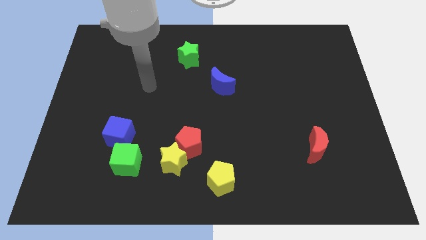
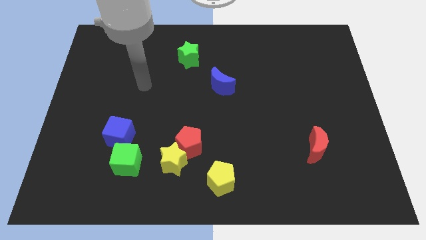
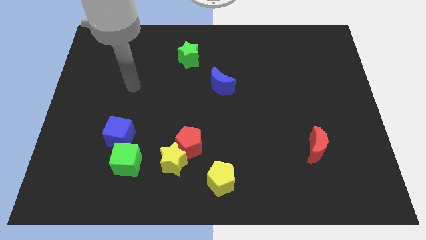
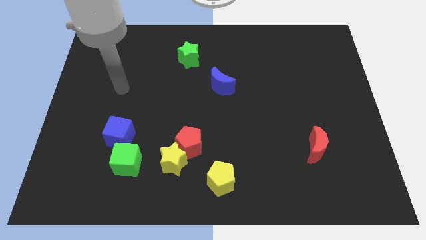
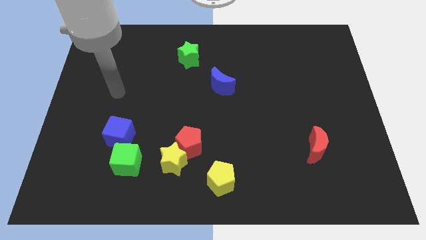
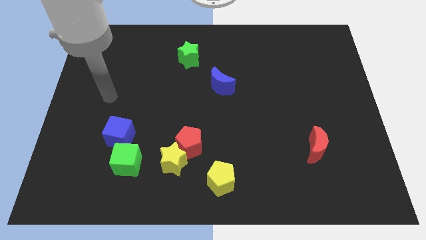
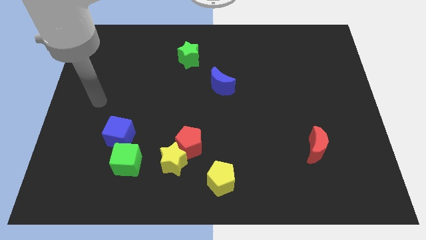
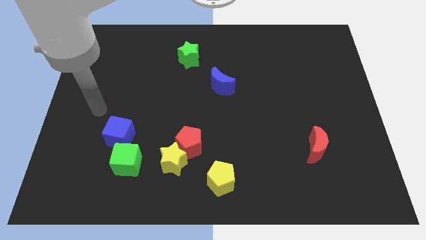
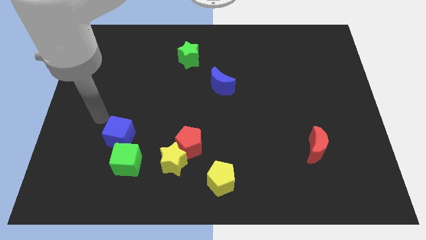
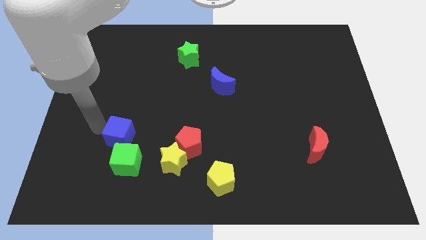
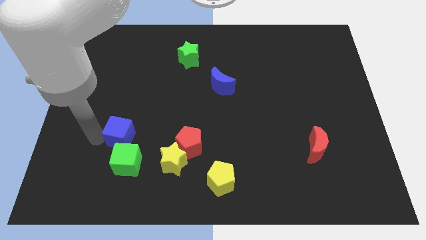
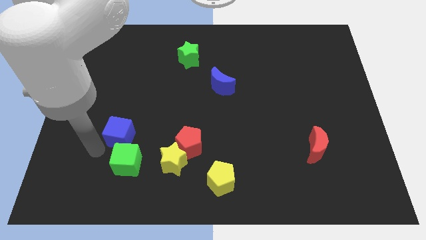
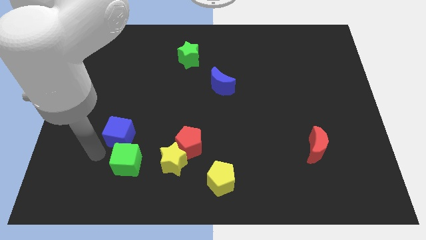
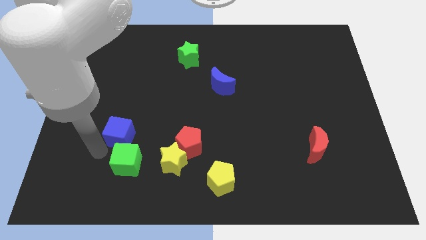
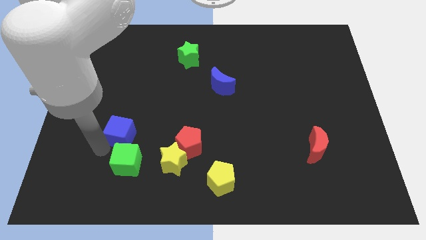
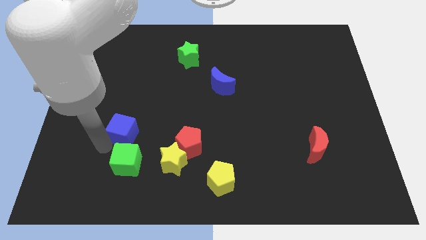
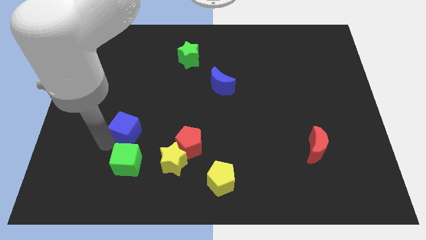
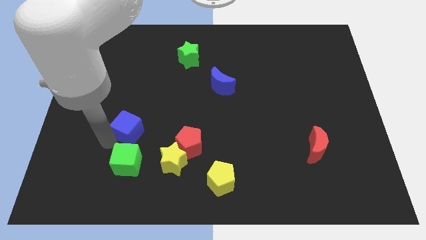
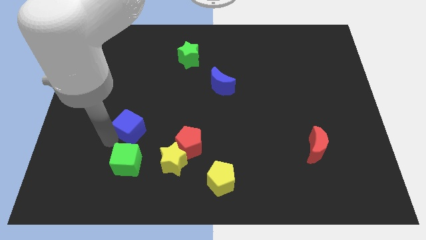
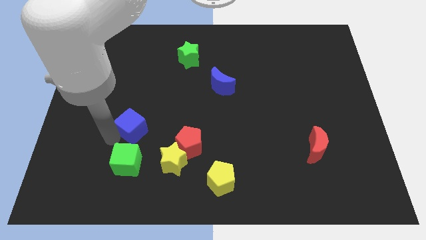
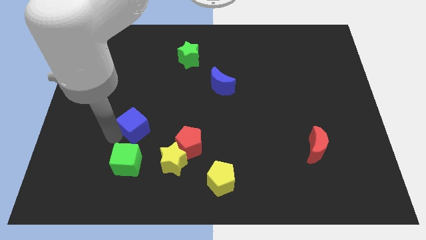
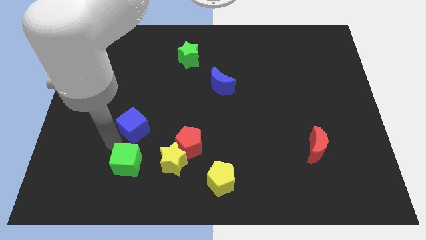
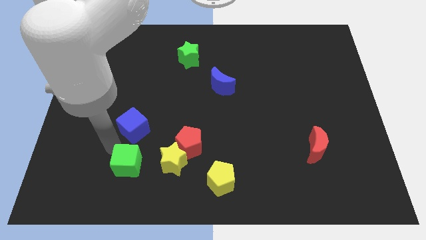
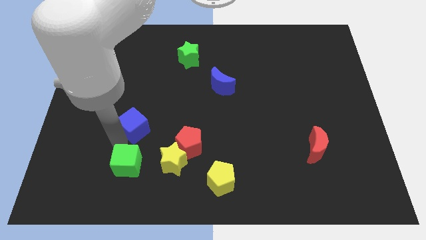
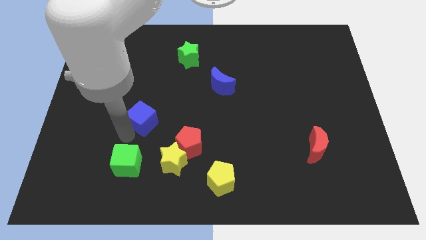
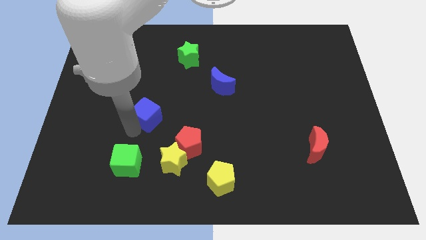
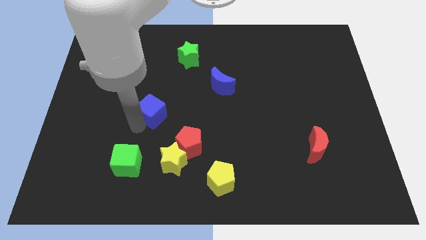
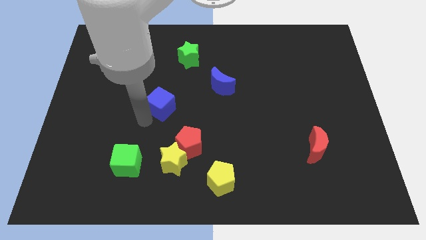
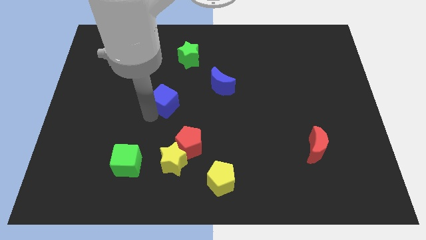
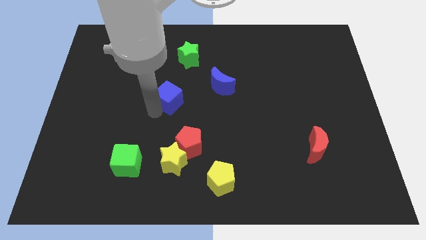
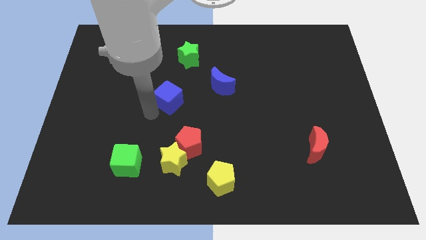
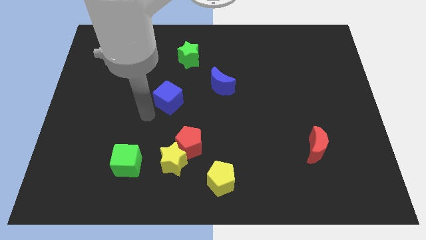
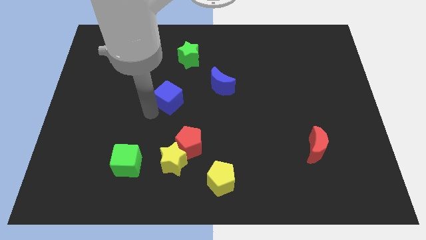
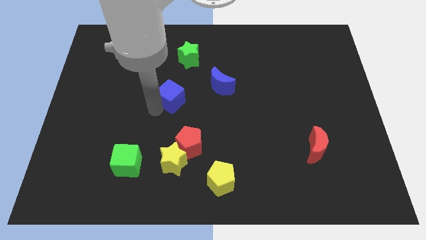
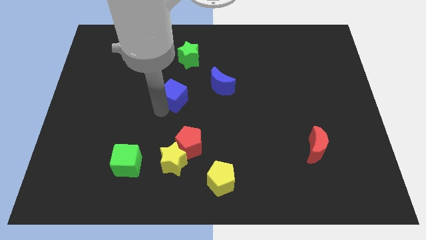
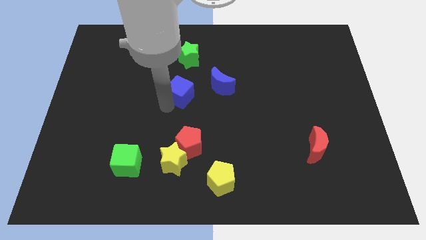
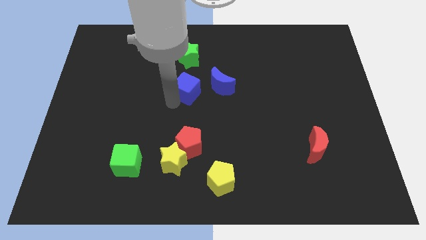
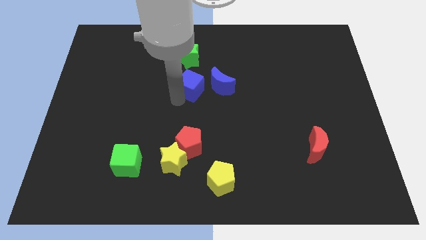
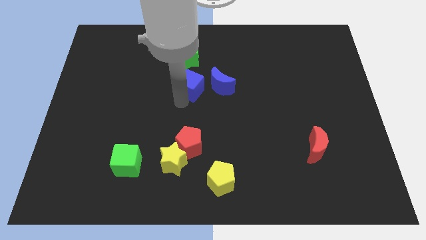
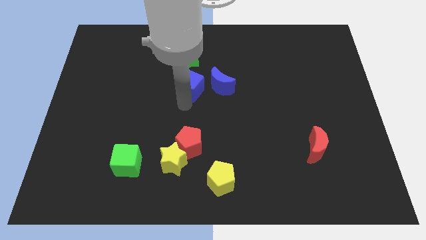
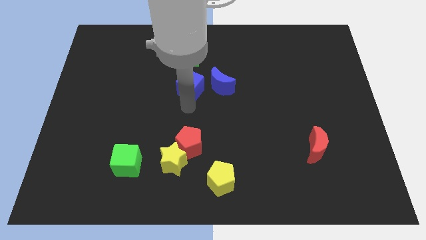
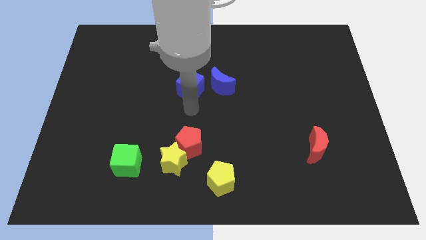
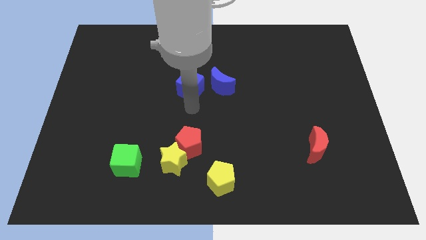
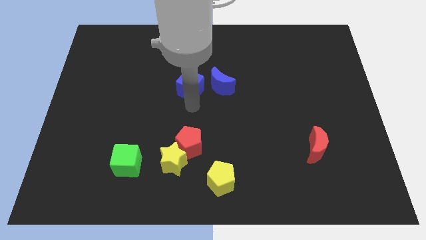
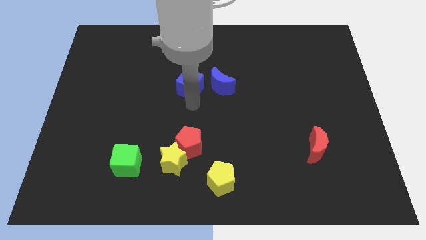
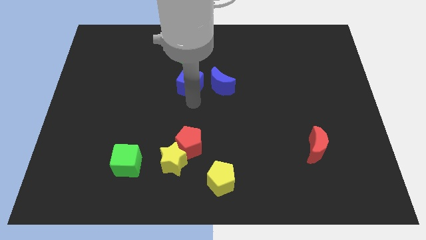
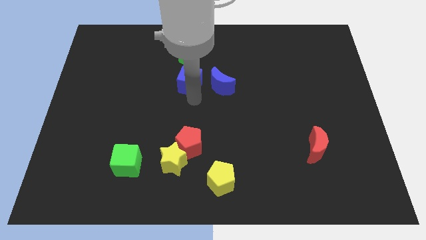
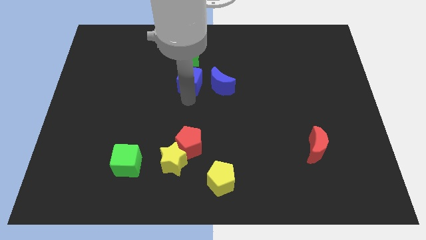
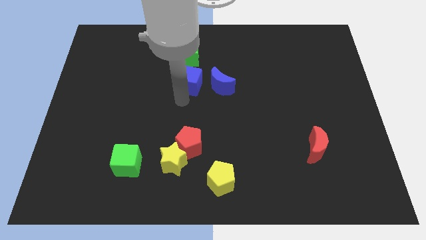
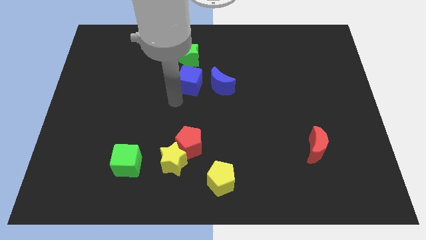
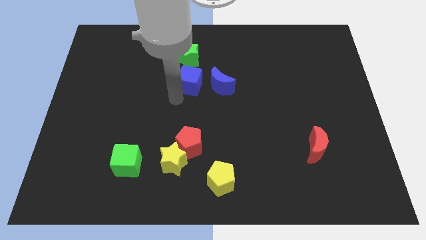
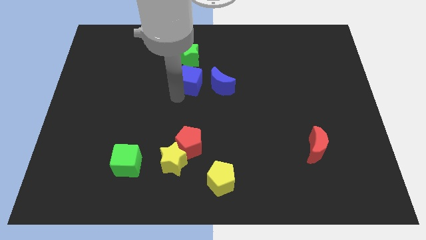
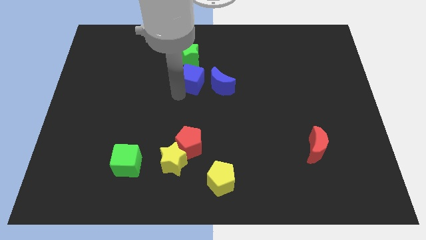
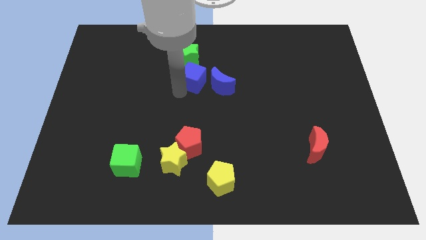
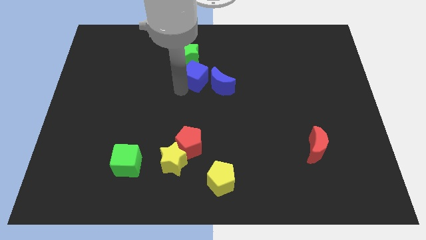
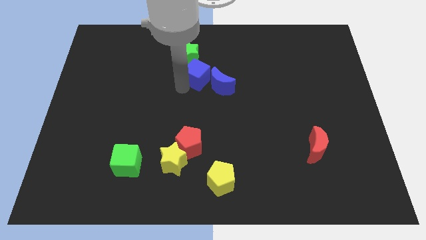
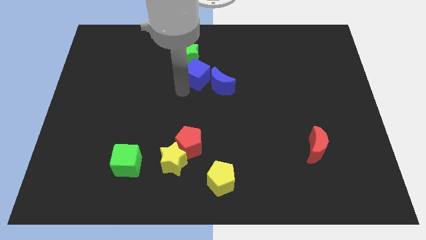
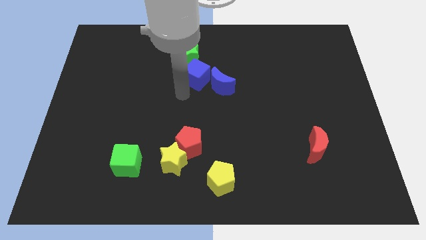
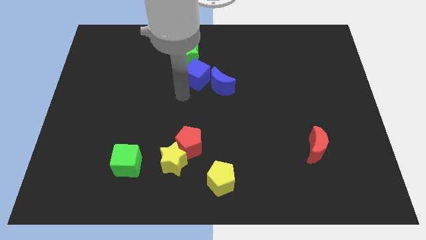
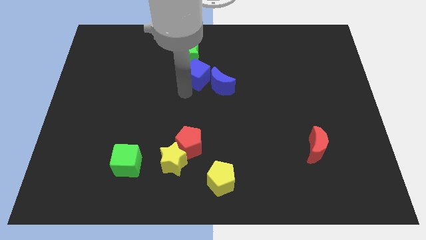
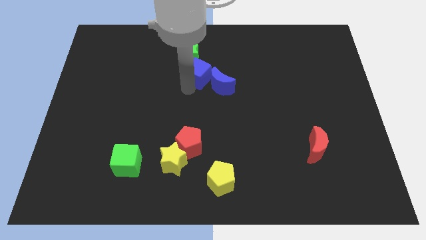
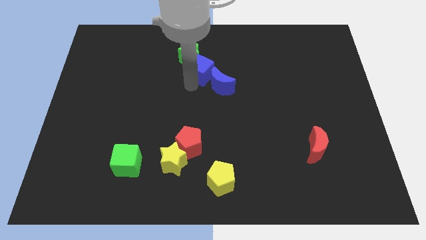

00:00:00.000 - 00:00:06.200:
put the blue cube above the blue moon

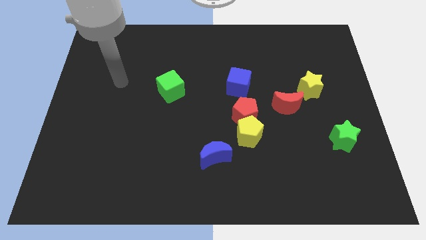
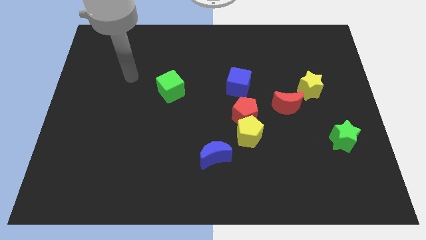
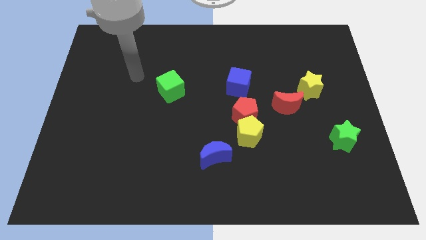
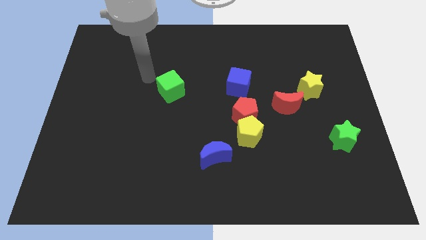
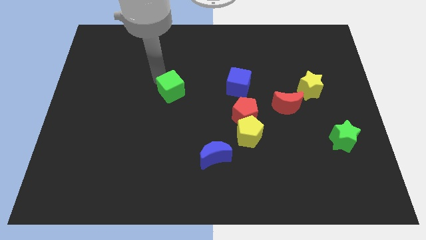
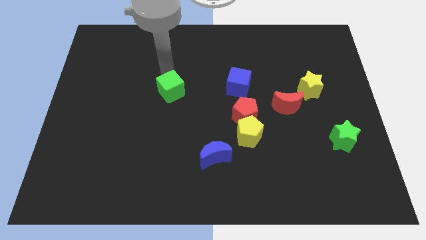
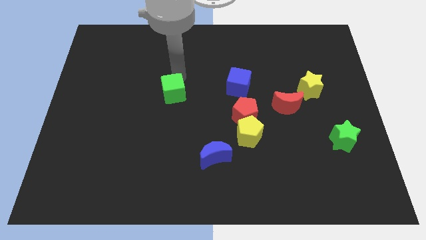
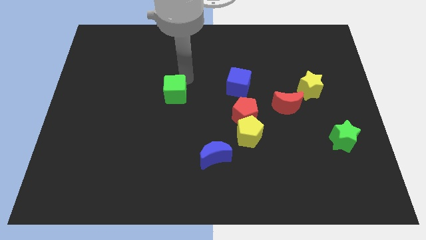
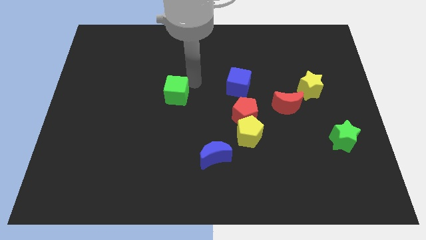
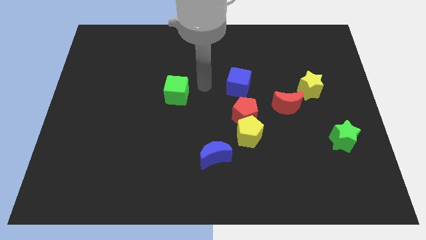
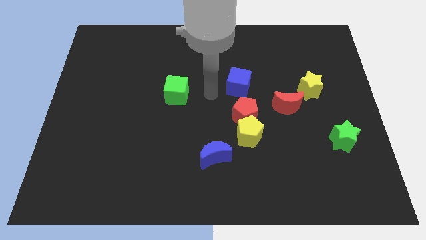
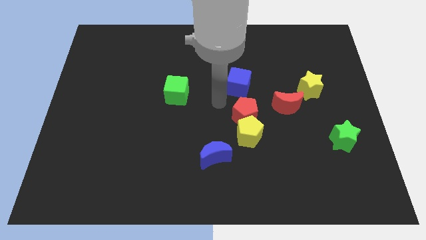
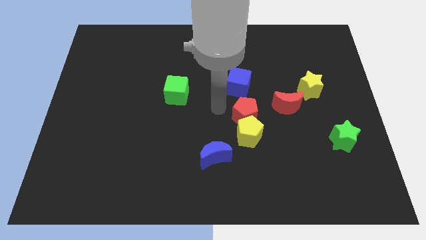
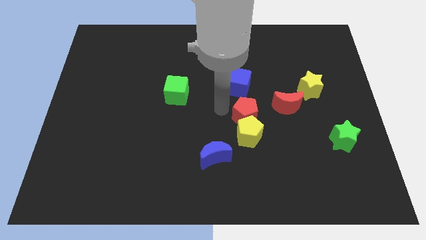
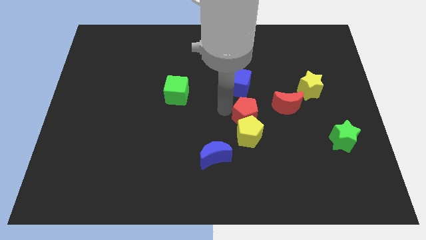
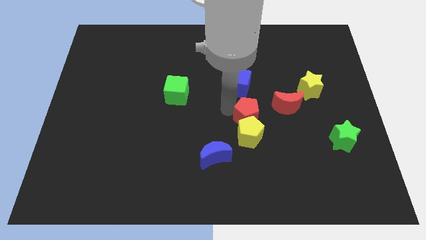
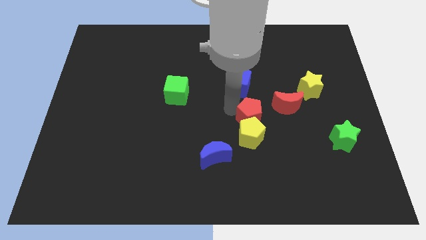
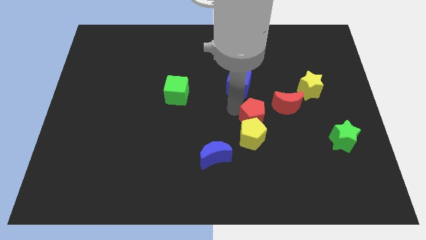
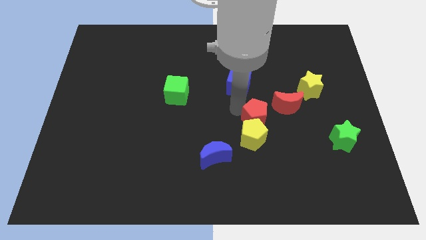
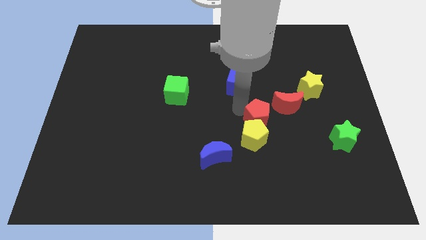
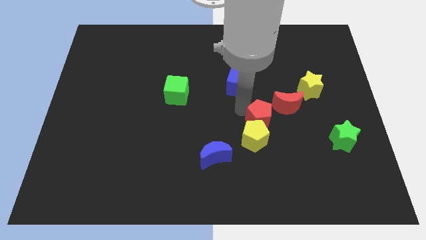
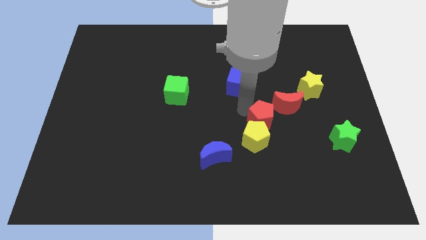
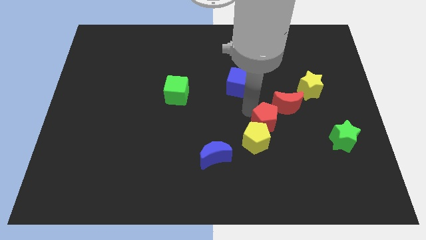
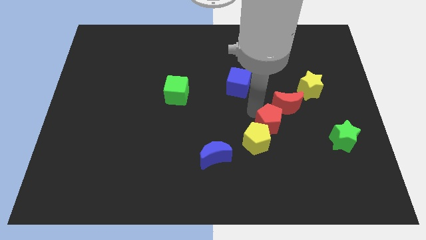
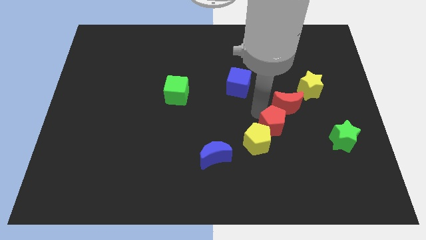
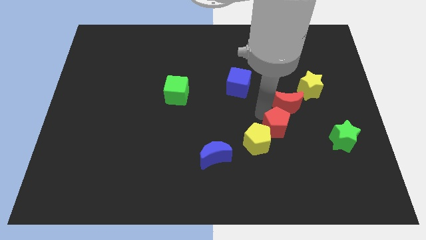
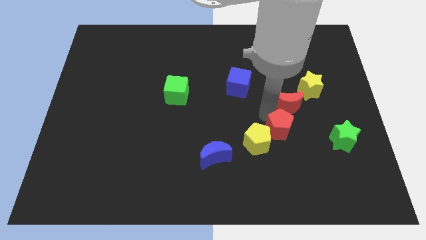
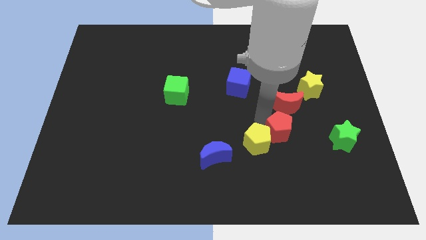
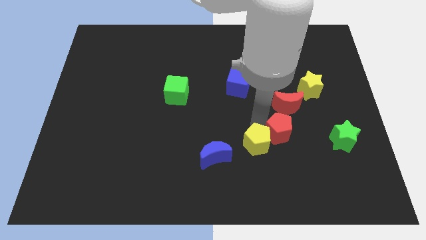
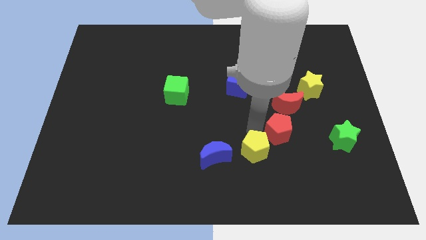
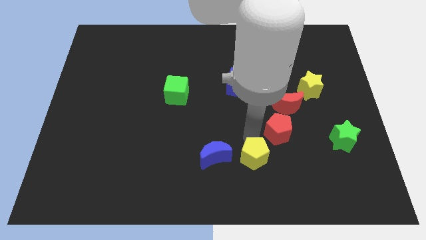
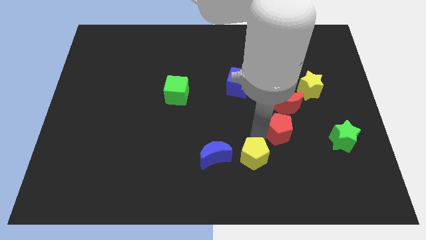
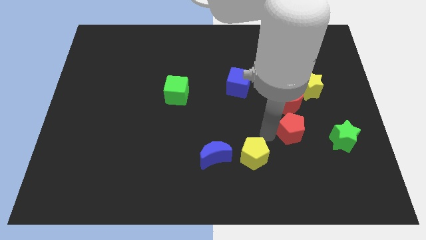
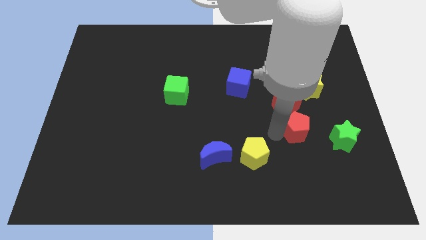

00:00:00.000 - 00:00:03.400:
push the red pentagon to the bottom right side of the red moon
